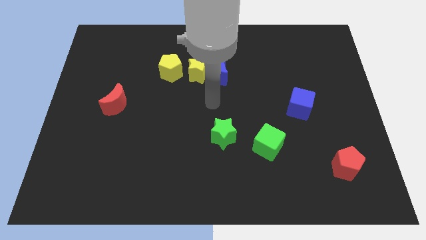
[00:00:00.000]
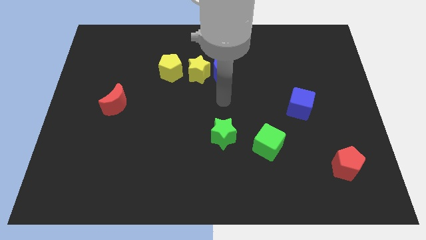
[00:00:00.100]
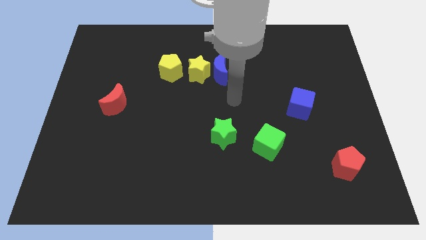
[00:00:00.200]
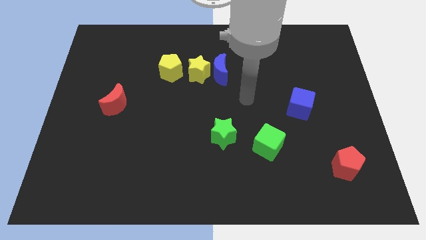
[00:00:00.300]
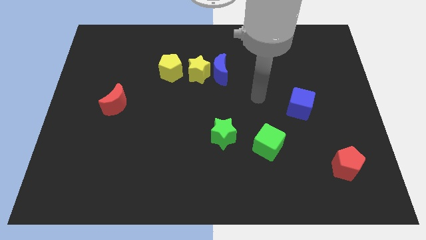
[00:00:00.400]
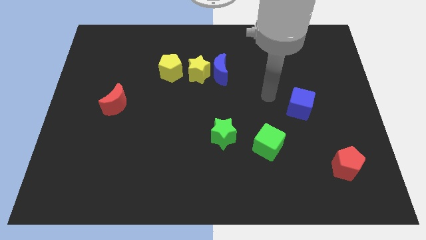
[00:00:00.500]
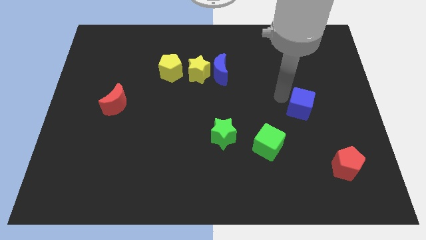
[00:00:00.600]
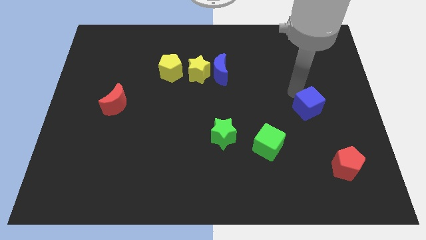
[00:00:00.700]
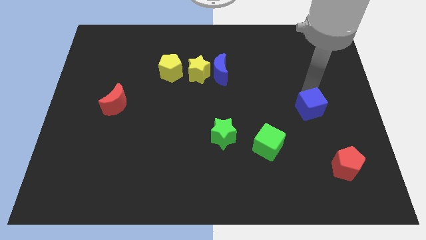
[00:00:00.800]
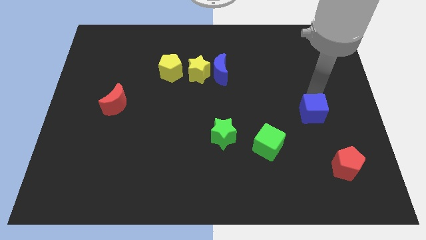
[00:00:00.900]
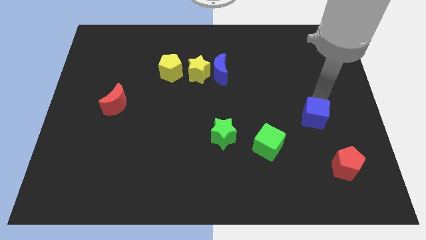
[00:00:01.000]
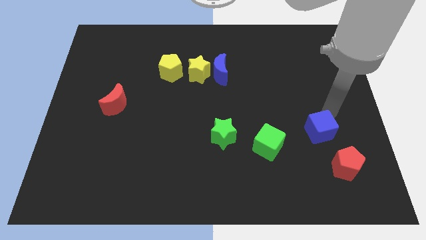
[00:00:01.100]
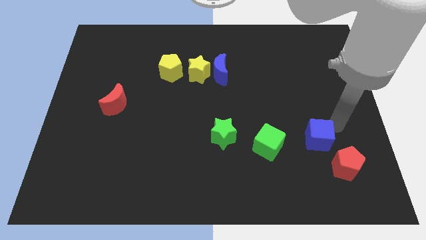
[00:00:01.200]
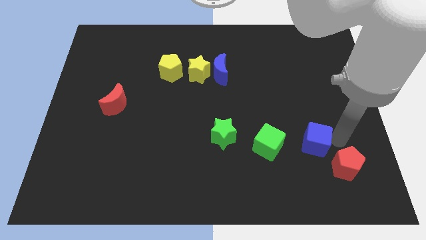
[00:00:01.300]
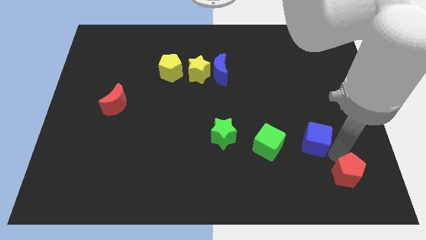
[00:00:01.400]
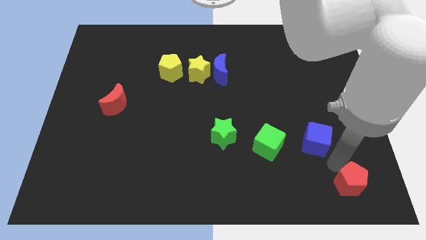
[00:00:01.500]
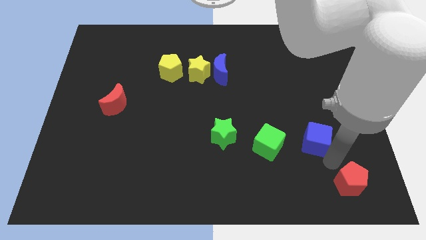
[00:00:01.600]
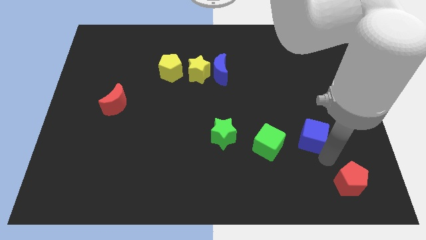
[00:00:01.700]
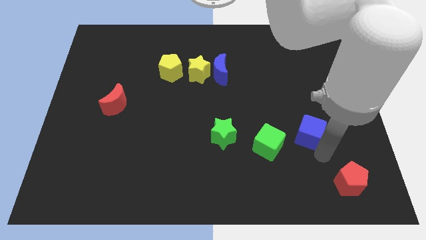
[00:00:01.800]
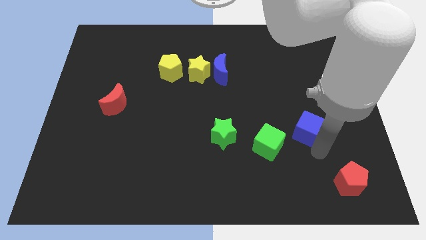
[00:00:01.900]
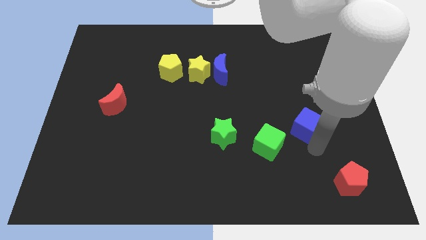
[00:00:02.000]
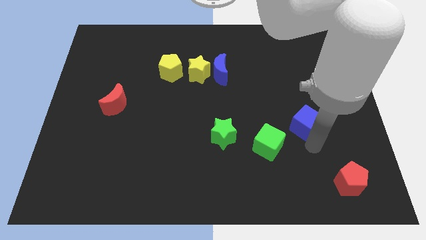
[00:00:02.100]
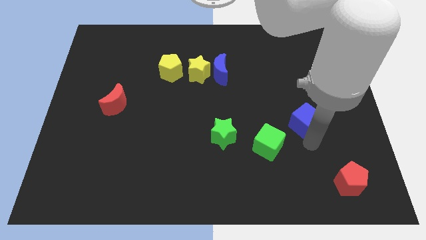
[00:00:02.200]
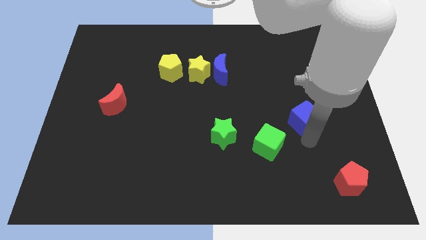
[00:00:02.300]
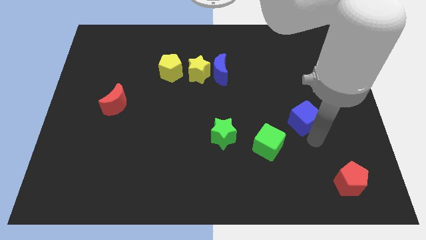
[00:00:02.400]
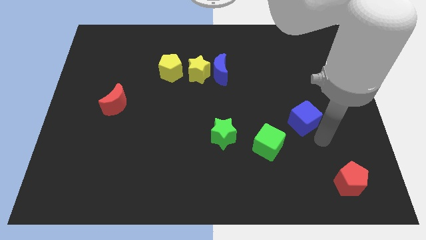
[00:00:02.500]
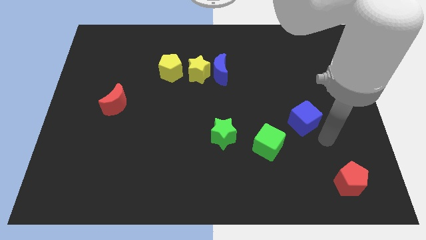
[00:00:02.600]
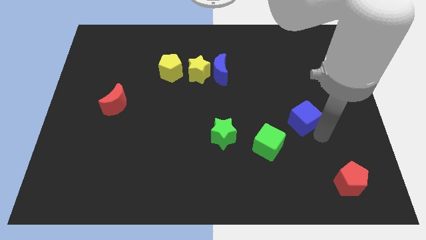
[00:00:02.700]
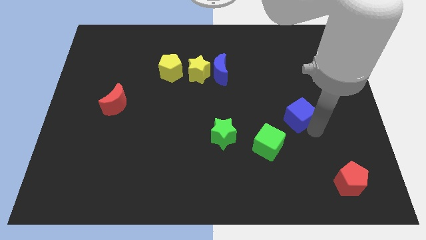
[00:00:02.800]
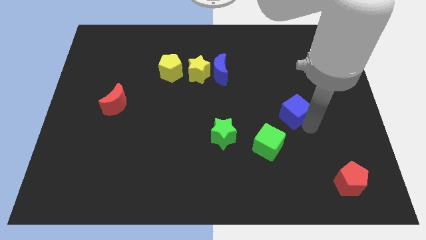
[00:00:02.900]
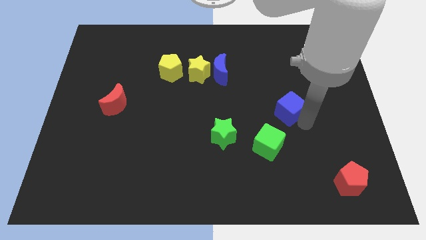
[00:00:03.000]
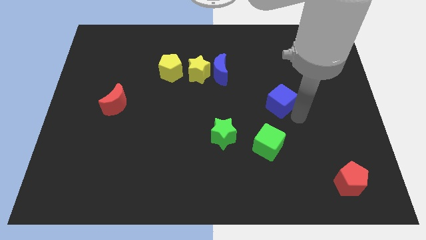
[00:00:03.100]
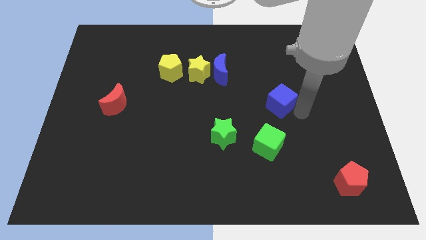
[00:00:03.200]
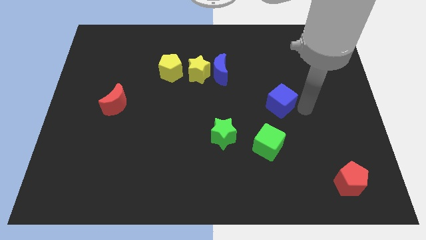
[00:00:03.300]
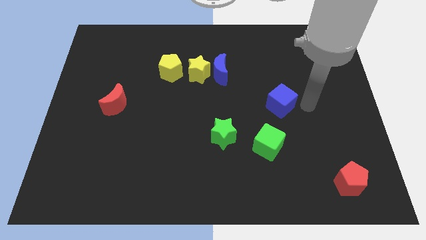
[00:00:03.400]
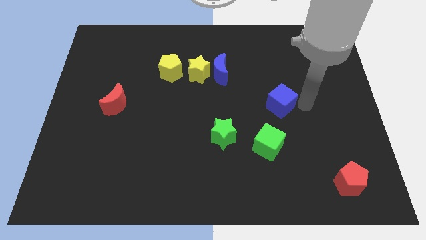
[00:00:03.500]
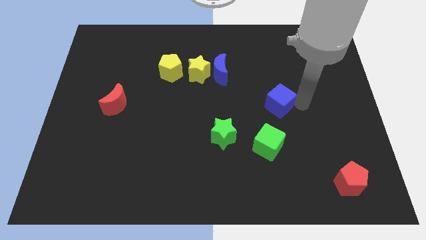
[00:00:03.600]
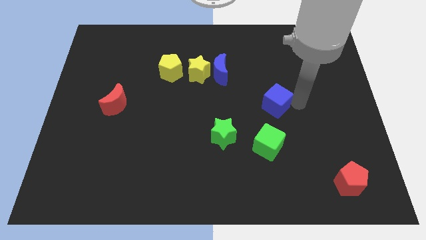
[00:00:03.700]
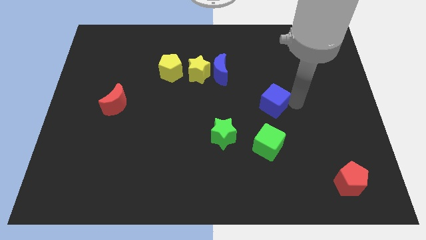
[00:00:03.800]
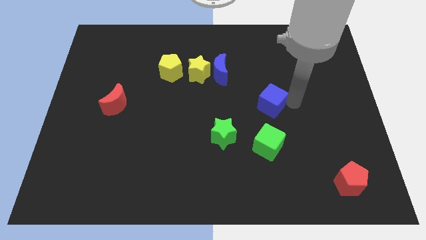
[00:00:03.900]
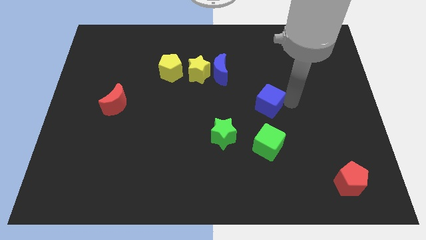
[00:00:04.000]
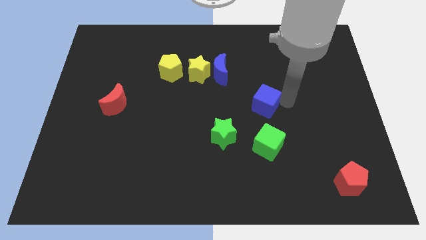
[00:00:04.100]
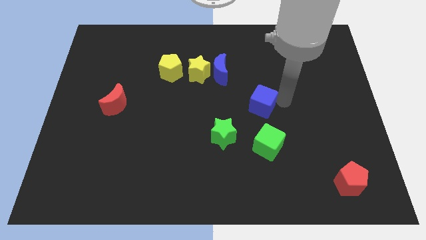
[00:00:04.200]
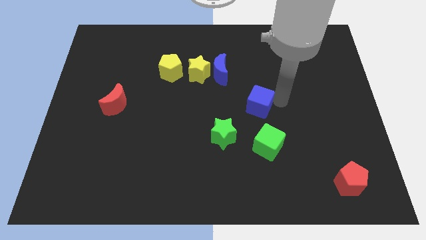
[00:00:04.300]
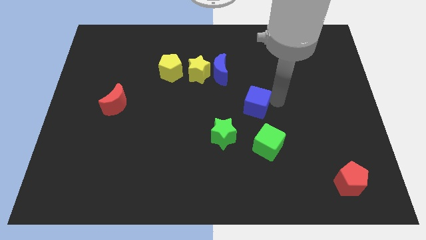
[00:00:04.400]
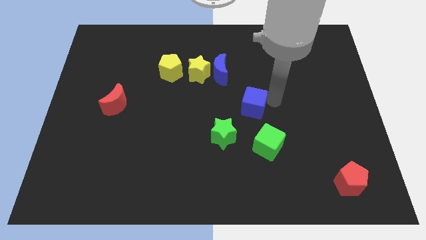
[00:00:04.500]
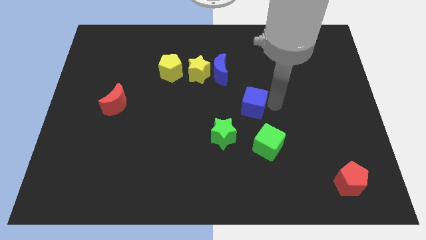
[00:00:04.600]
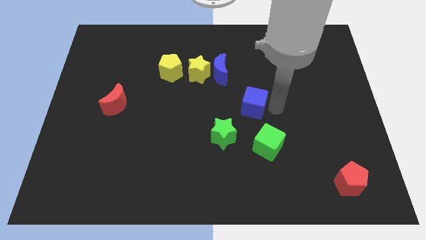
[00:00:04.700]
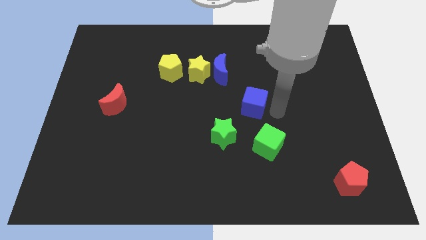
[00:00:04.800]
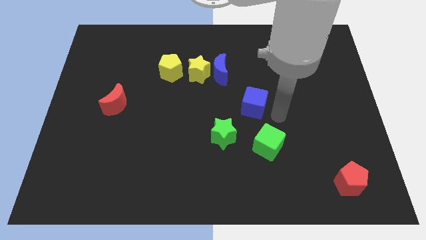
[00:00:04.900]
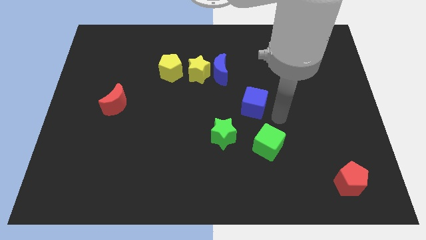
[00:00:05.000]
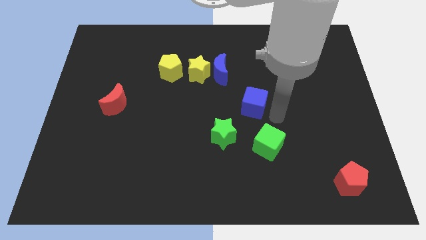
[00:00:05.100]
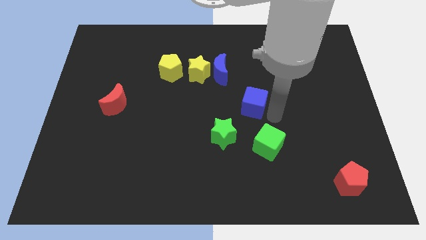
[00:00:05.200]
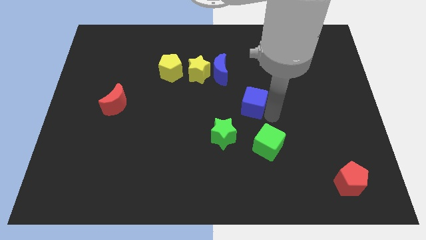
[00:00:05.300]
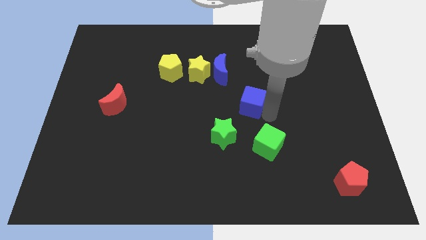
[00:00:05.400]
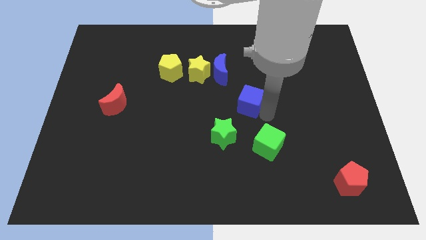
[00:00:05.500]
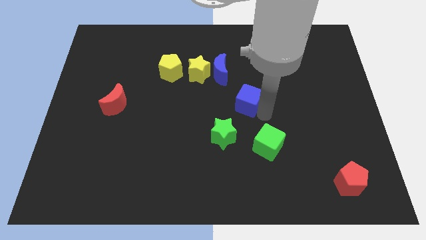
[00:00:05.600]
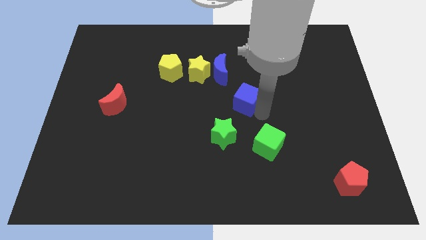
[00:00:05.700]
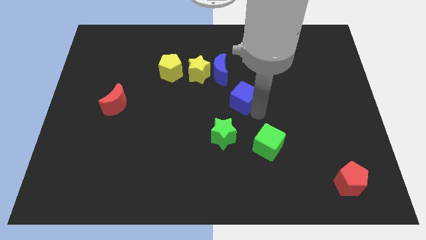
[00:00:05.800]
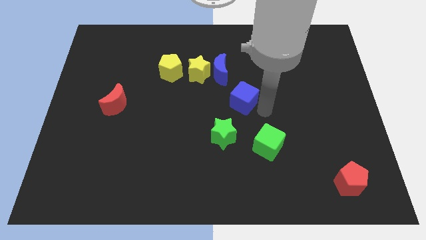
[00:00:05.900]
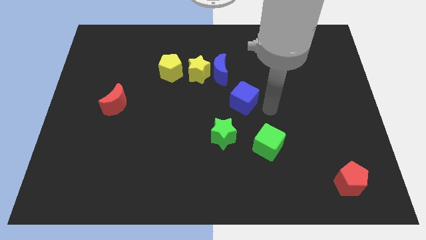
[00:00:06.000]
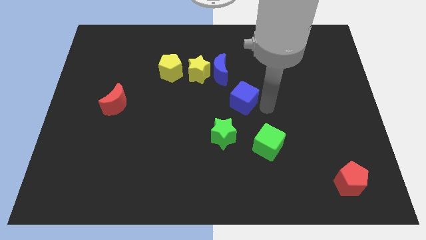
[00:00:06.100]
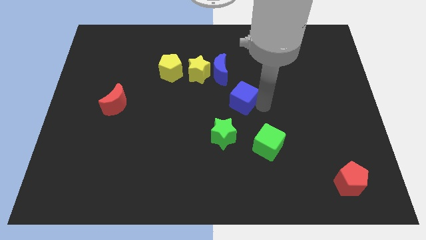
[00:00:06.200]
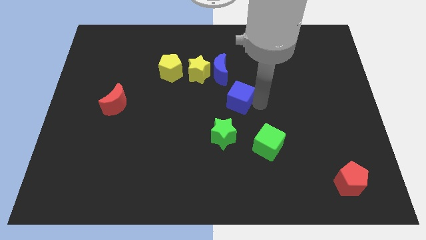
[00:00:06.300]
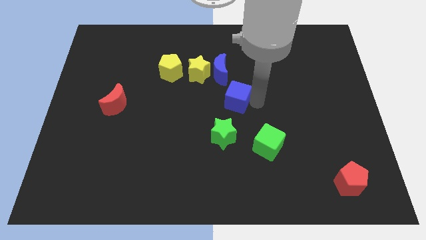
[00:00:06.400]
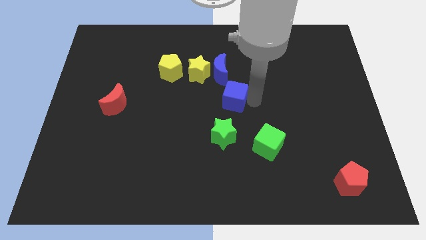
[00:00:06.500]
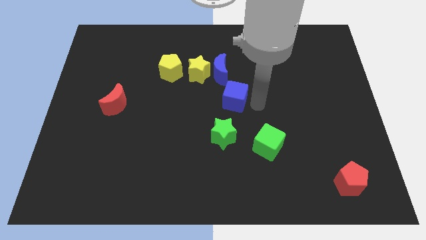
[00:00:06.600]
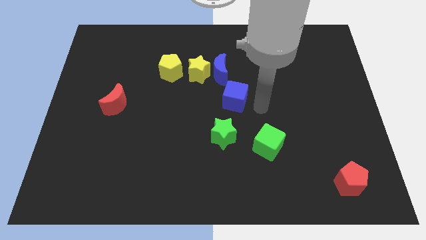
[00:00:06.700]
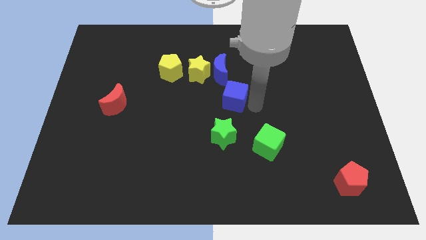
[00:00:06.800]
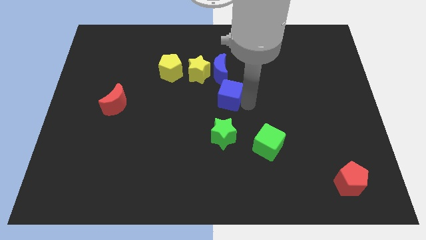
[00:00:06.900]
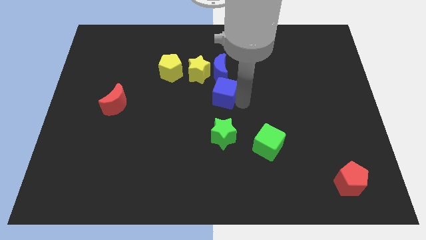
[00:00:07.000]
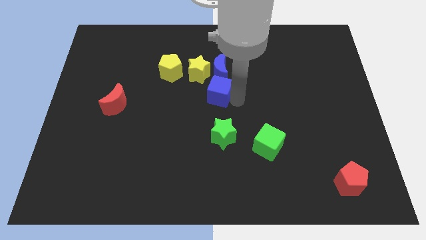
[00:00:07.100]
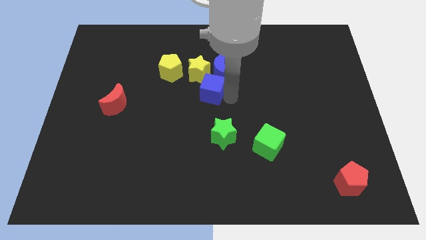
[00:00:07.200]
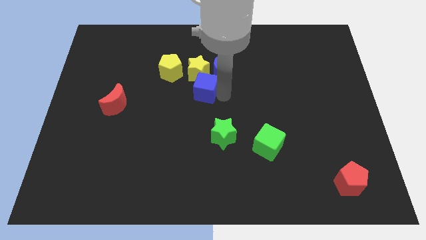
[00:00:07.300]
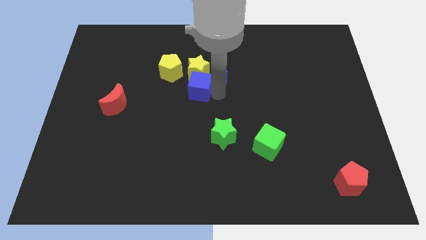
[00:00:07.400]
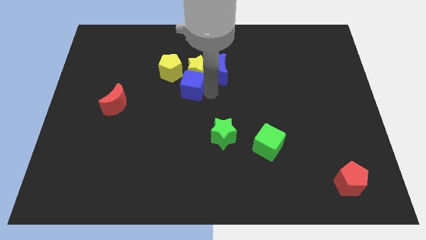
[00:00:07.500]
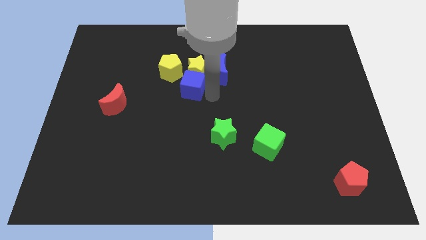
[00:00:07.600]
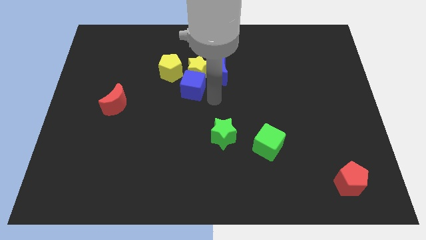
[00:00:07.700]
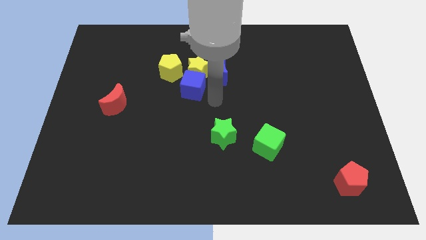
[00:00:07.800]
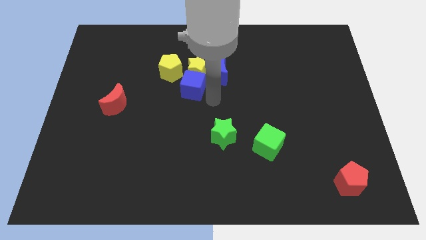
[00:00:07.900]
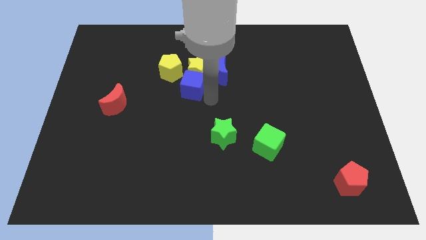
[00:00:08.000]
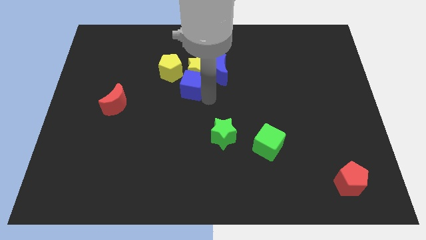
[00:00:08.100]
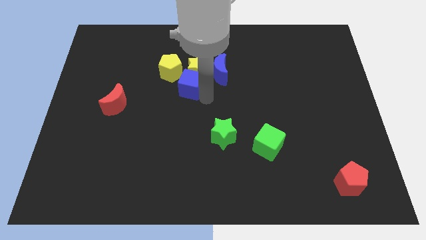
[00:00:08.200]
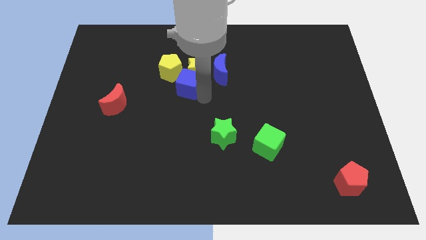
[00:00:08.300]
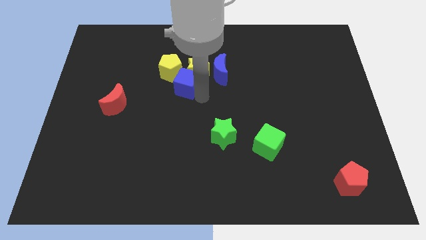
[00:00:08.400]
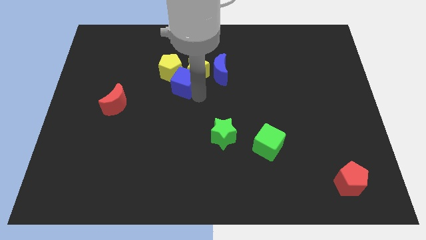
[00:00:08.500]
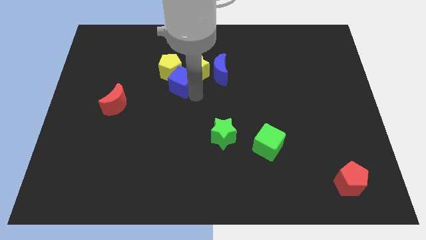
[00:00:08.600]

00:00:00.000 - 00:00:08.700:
slide the blue cube next to the yellow pentagon
